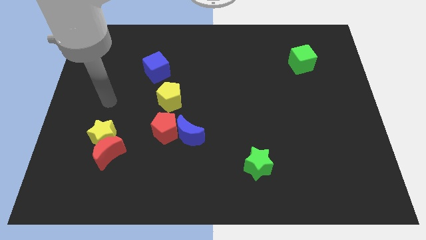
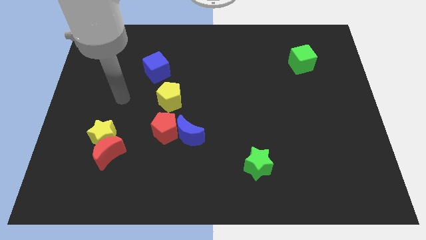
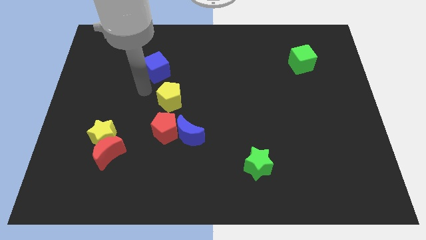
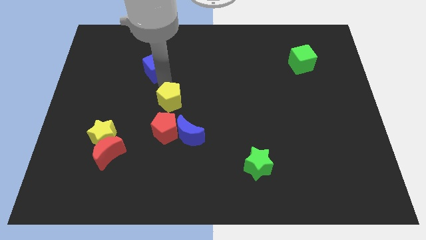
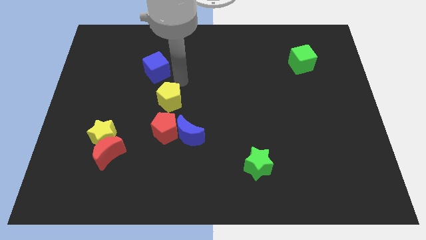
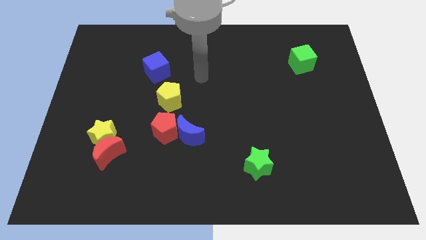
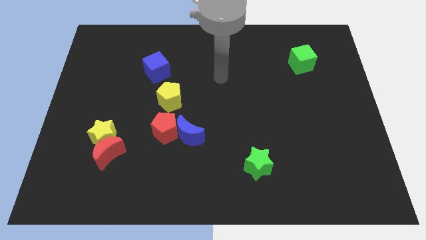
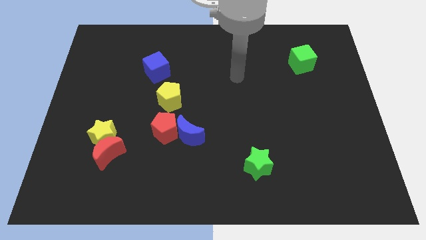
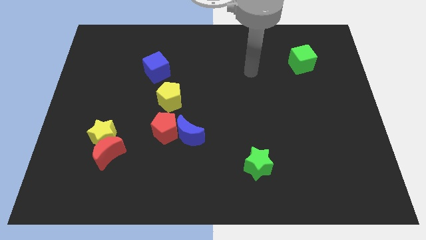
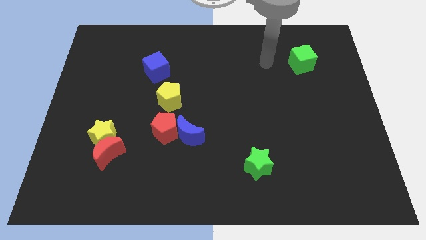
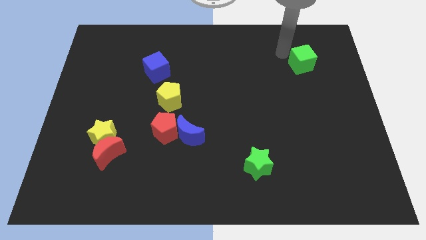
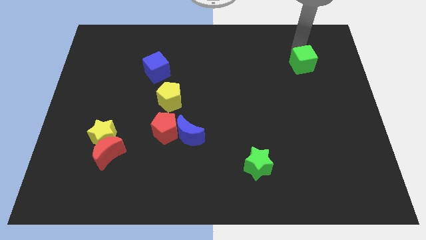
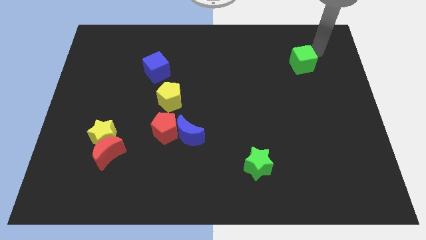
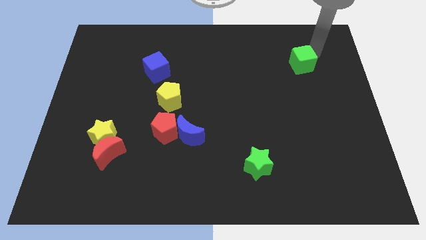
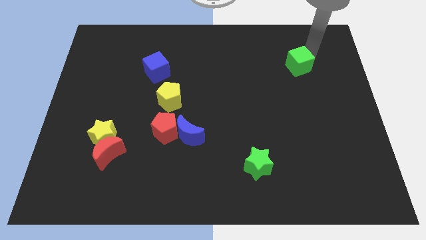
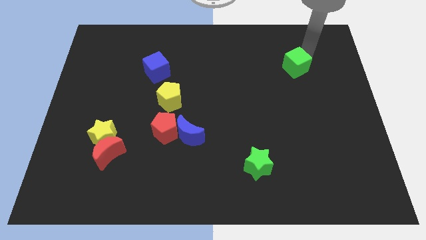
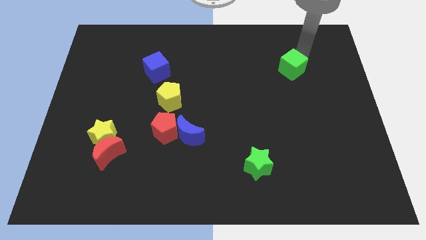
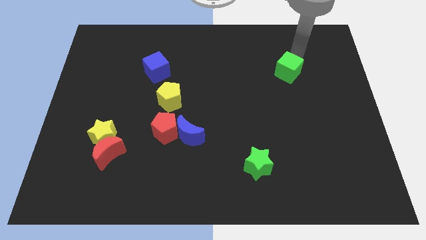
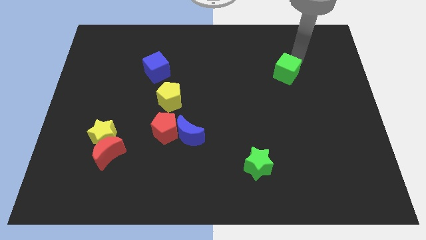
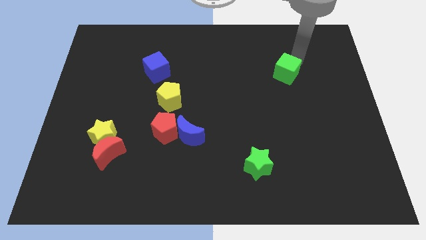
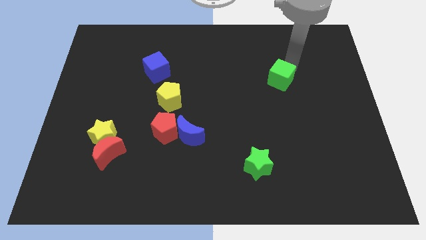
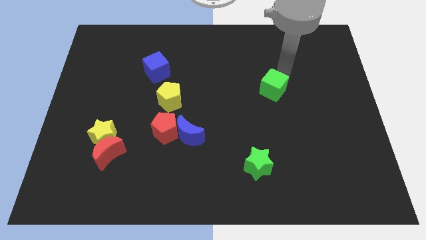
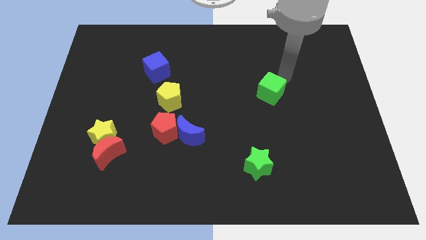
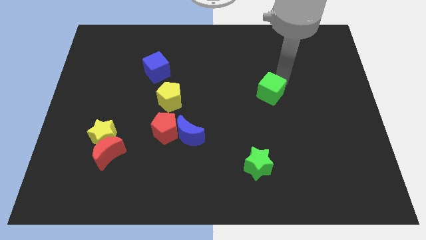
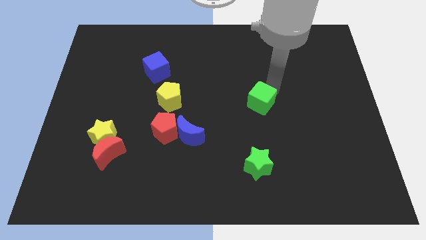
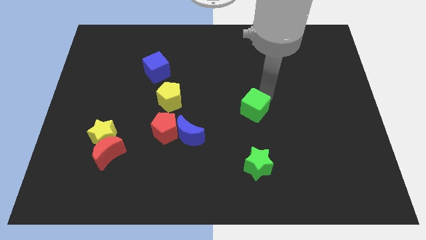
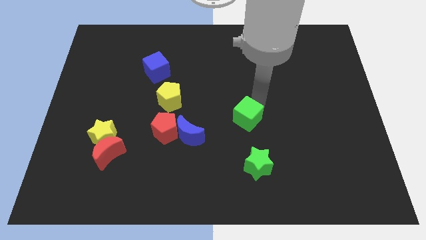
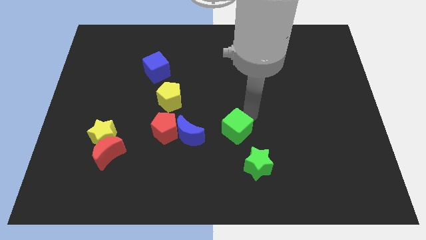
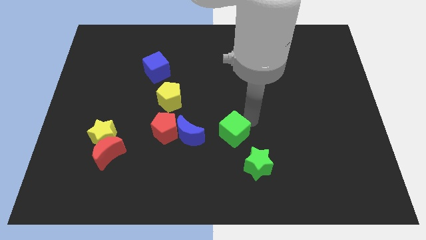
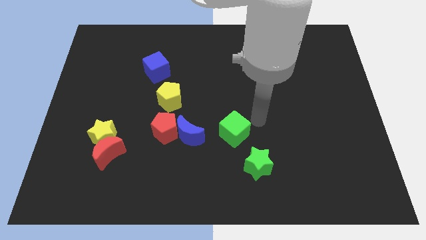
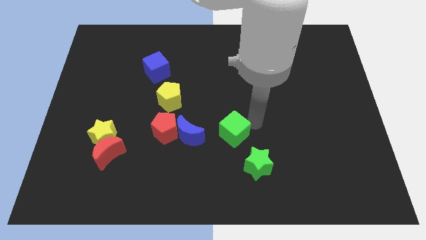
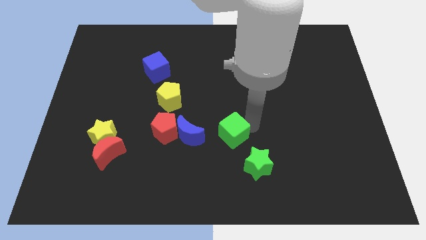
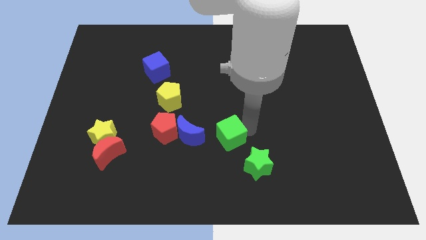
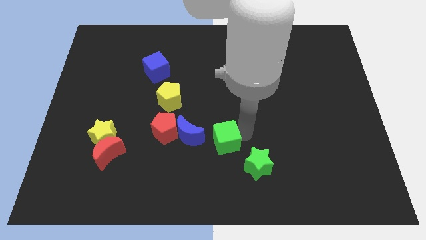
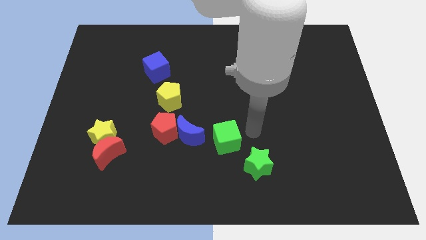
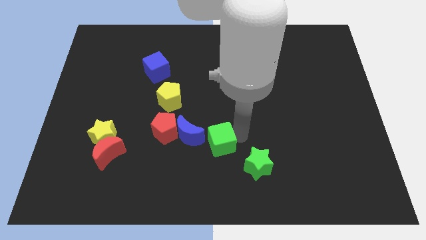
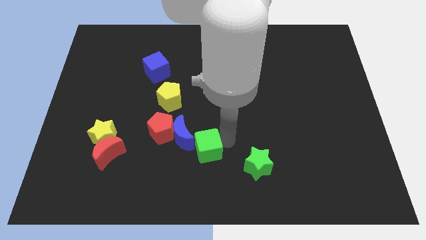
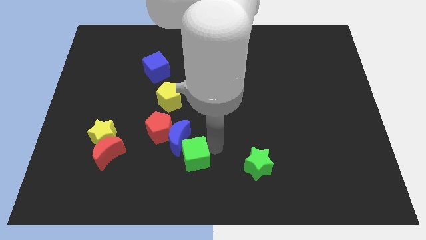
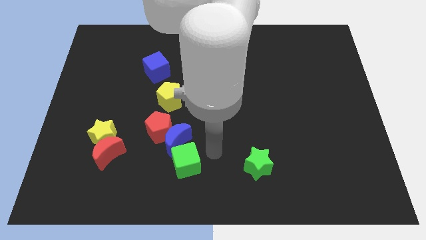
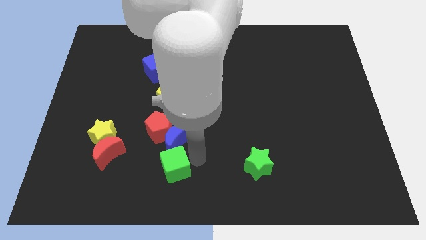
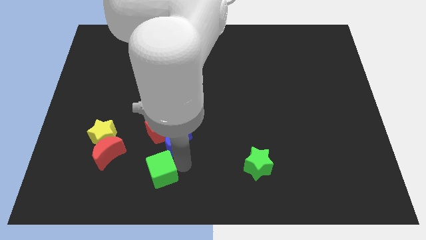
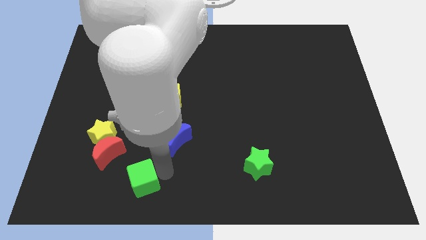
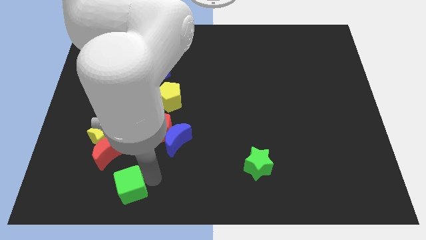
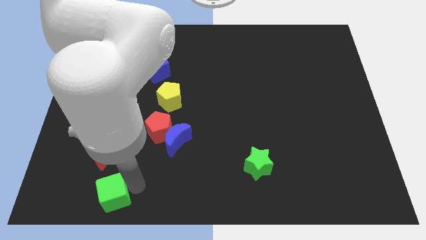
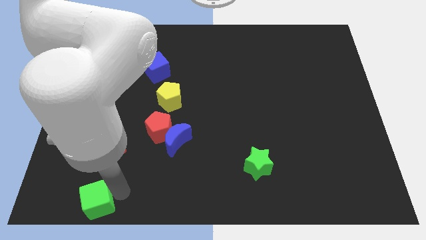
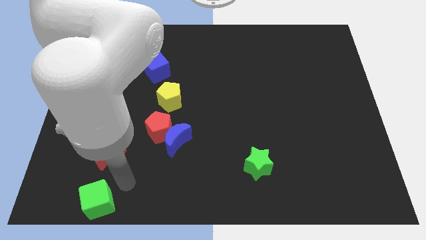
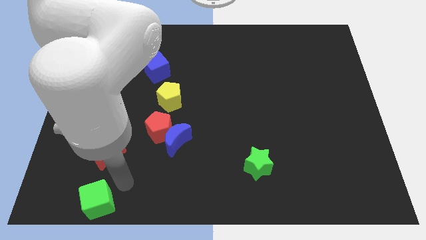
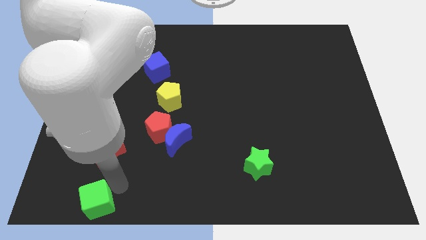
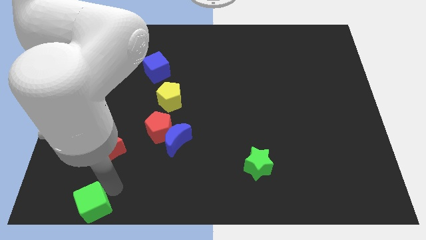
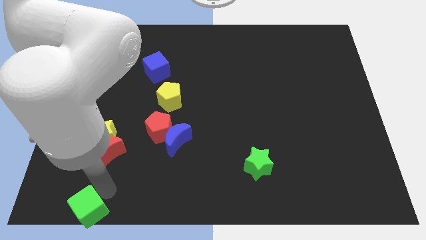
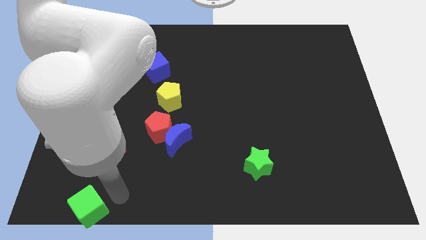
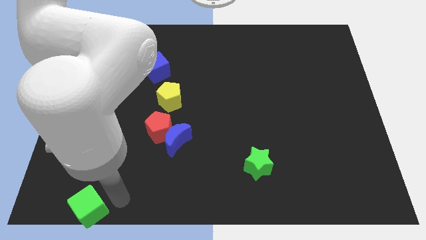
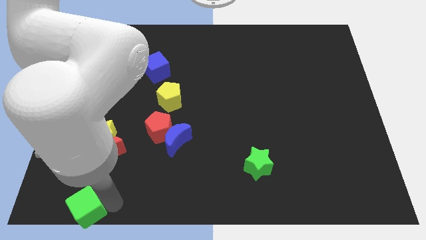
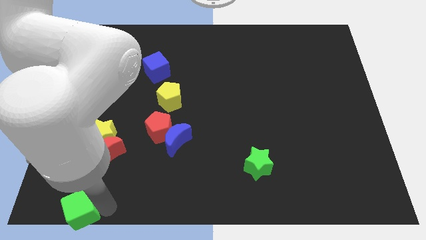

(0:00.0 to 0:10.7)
slide the green cube to the bottom left of the board

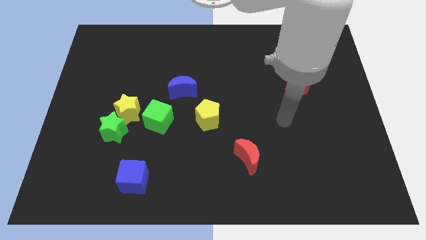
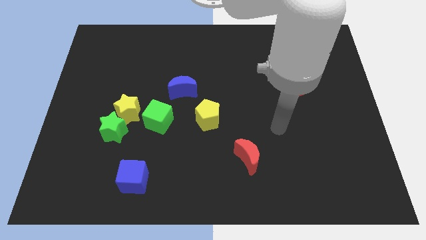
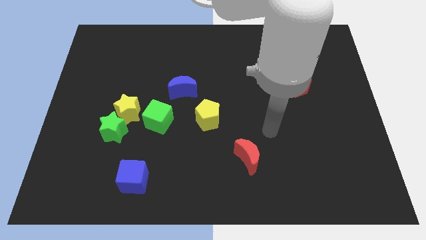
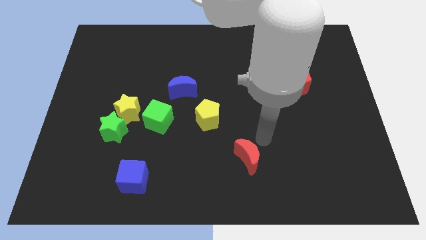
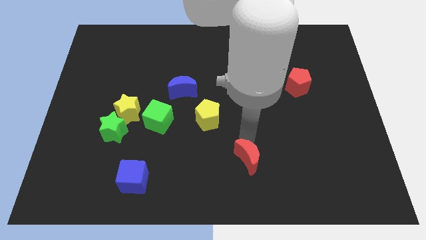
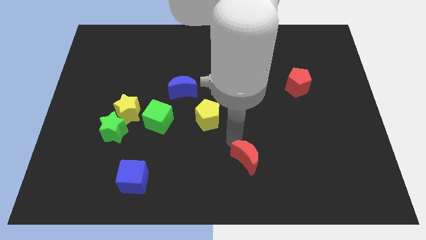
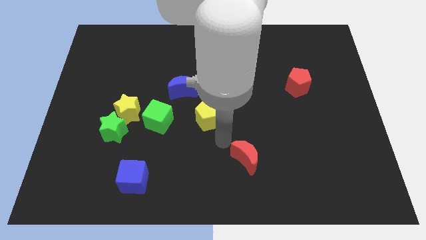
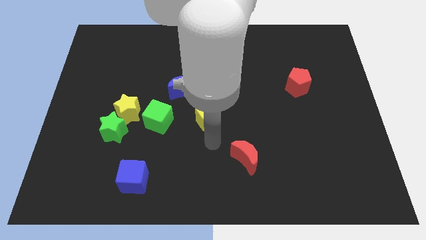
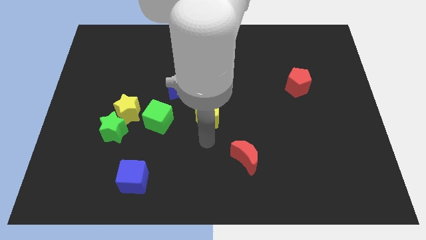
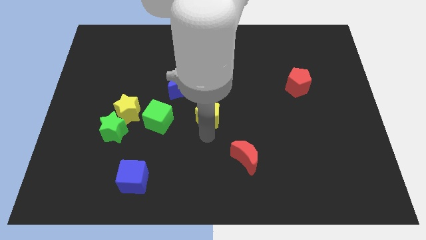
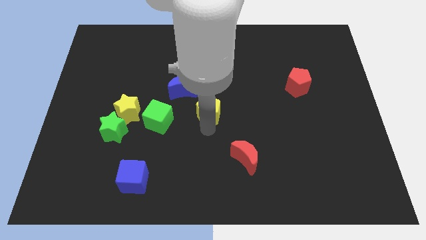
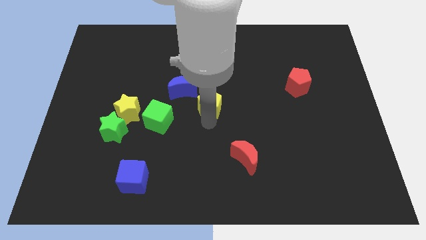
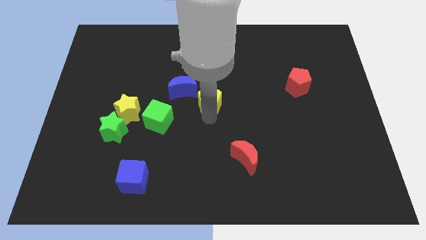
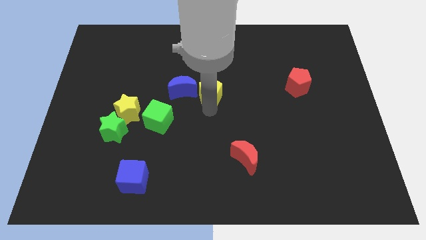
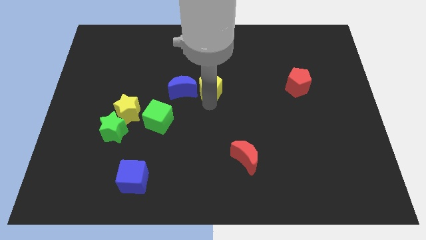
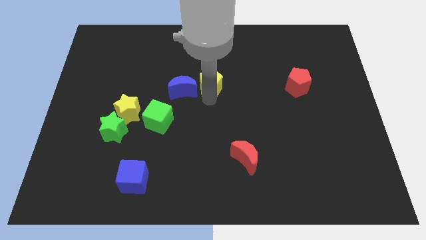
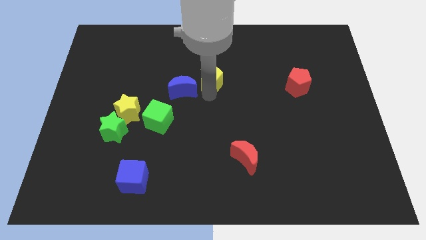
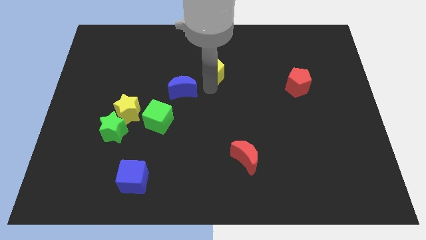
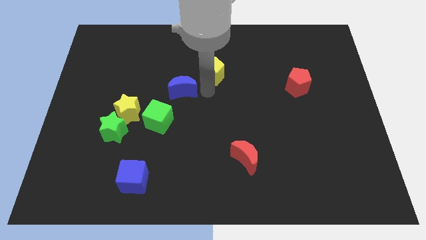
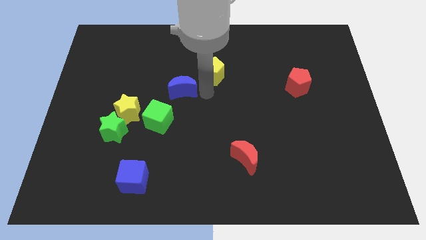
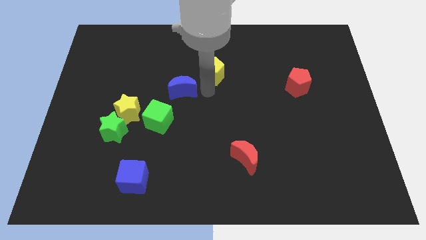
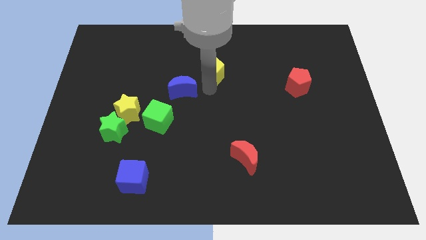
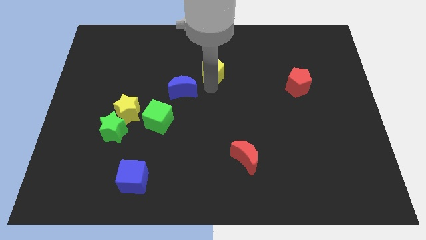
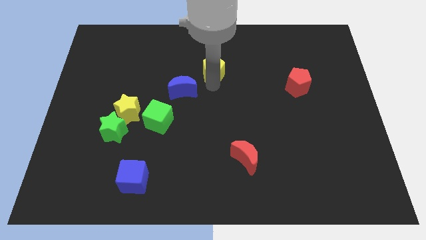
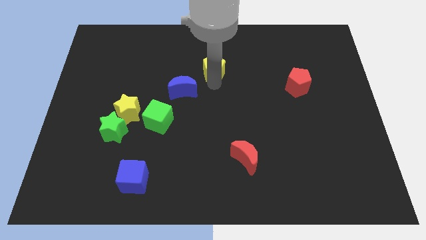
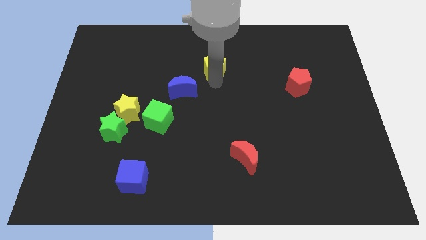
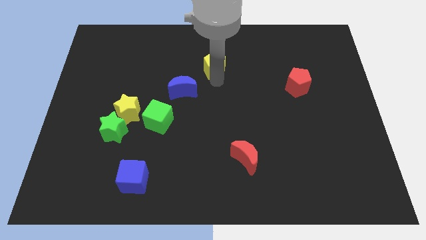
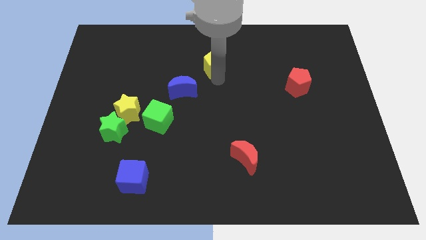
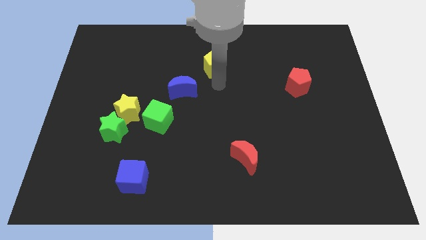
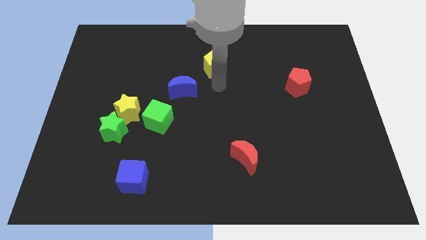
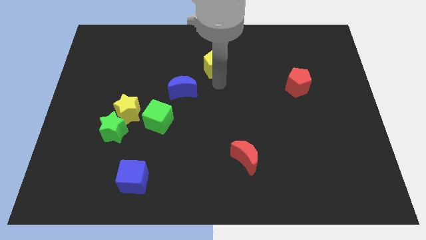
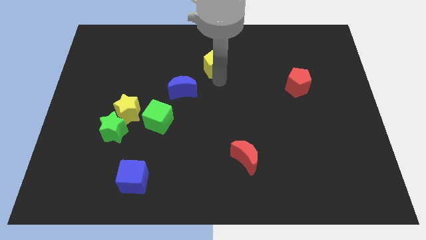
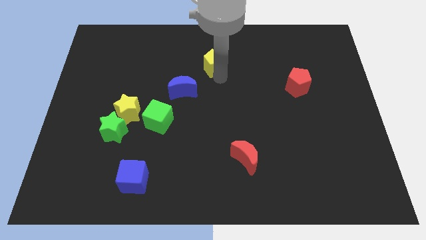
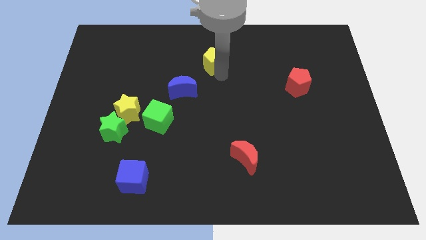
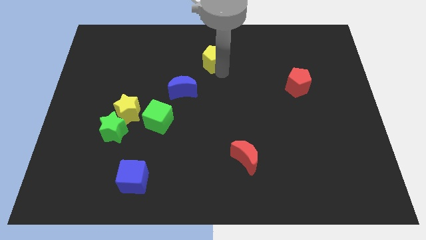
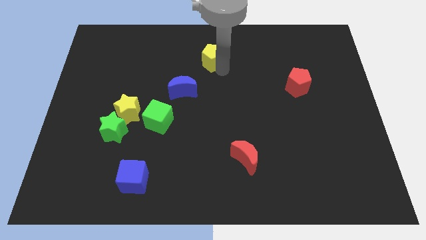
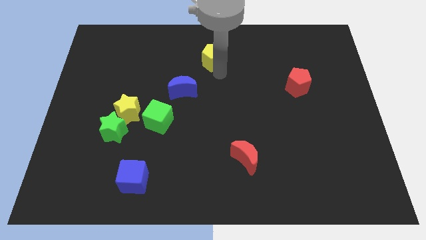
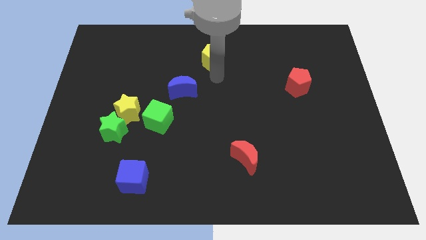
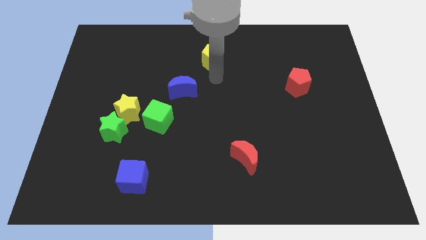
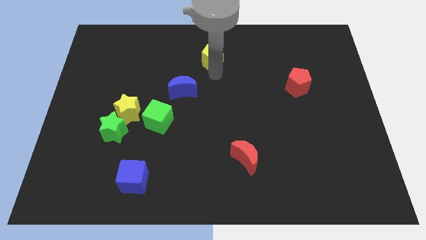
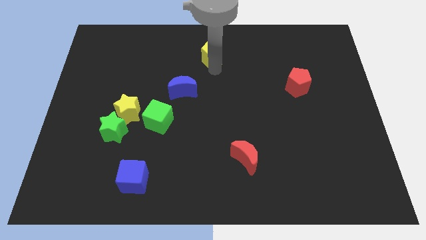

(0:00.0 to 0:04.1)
slide the yellow pentagon to the top side
